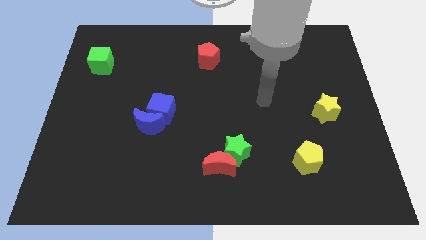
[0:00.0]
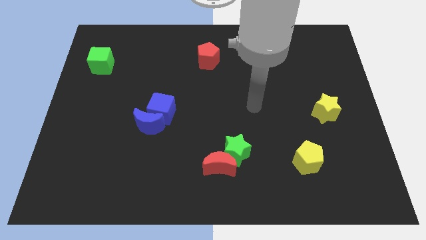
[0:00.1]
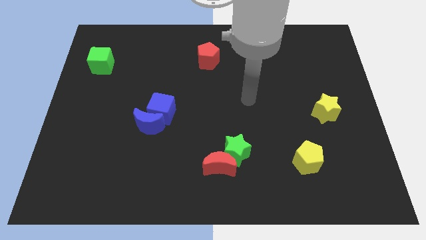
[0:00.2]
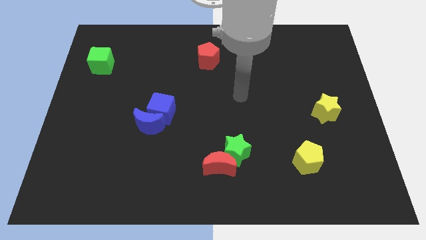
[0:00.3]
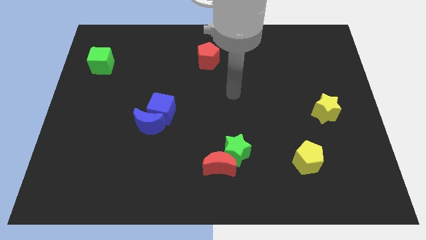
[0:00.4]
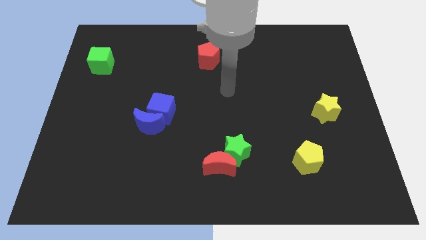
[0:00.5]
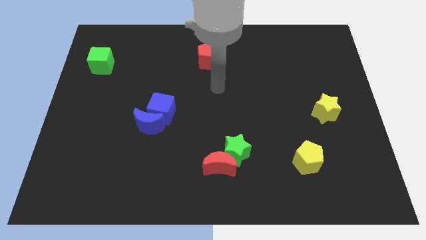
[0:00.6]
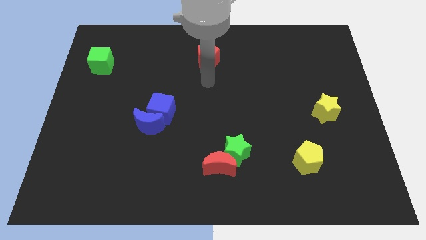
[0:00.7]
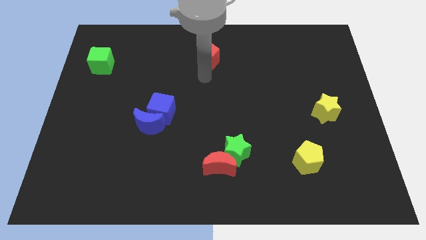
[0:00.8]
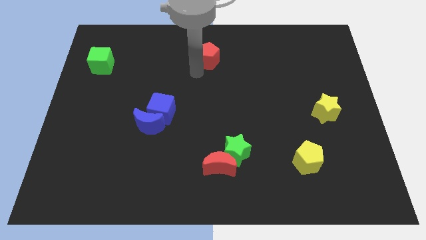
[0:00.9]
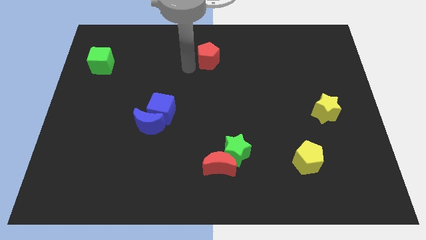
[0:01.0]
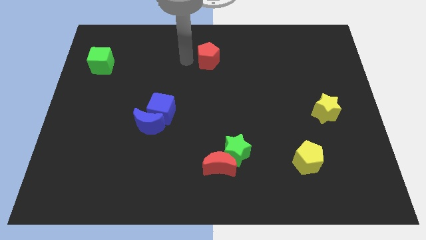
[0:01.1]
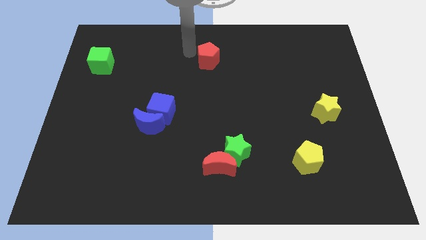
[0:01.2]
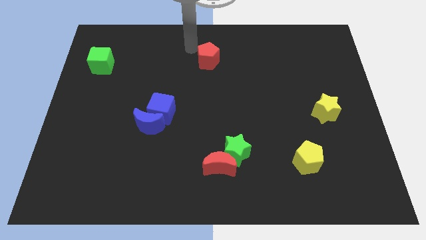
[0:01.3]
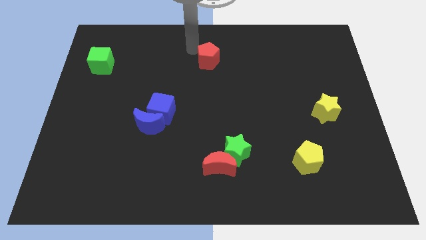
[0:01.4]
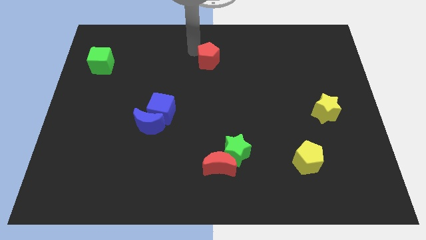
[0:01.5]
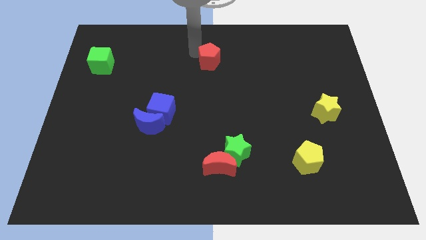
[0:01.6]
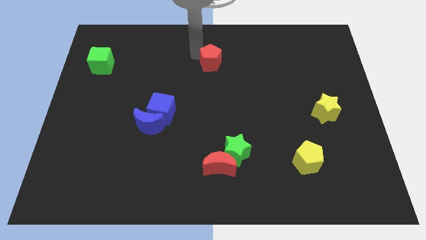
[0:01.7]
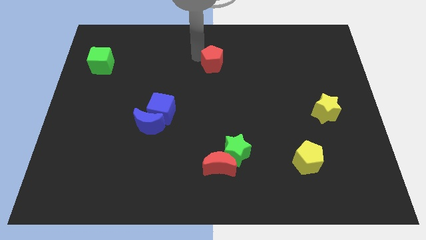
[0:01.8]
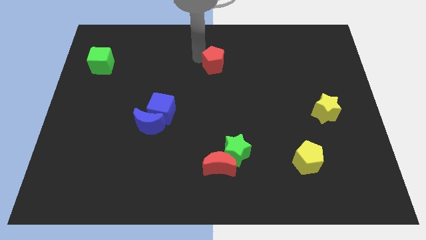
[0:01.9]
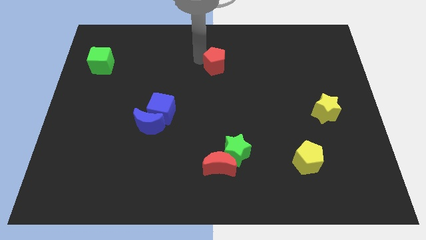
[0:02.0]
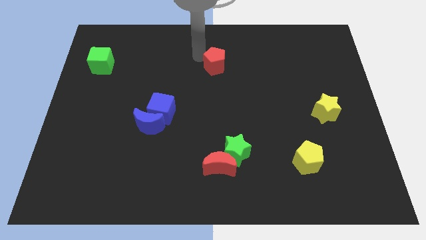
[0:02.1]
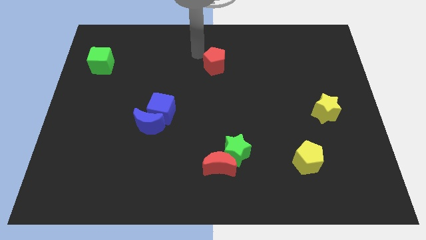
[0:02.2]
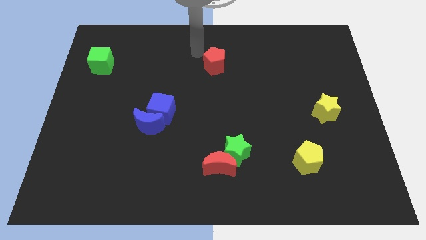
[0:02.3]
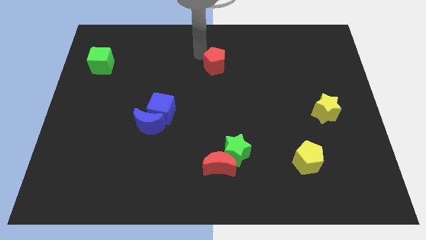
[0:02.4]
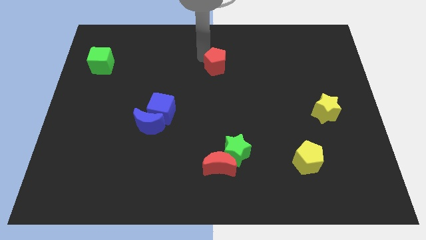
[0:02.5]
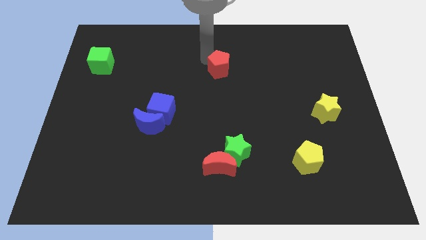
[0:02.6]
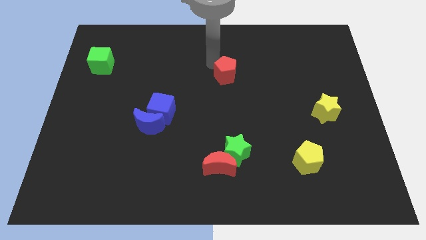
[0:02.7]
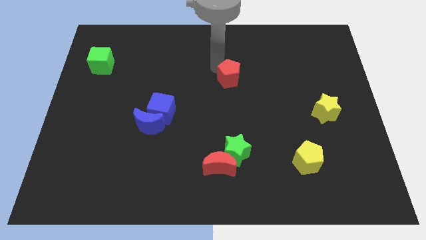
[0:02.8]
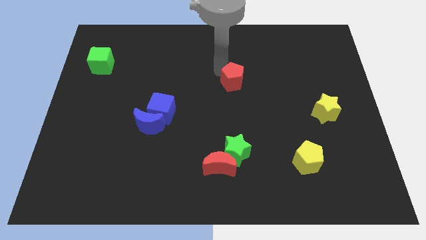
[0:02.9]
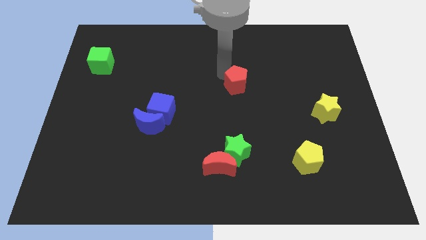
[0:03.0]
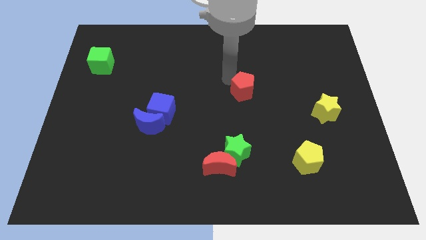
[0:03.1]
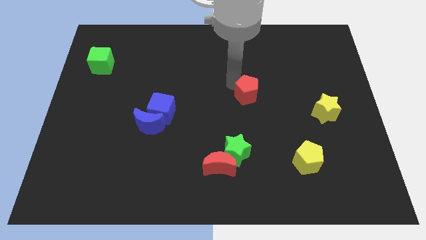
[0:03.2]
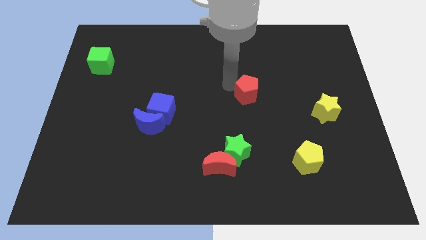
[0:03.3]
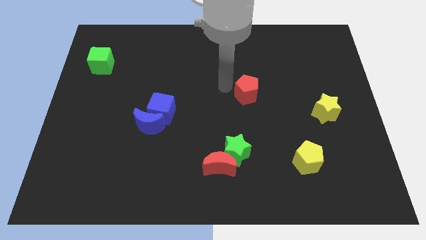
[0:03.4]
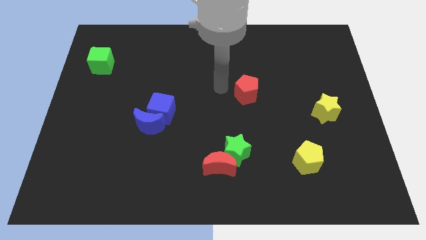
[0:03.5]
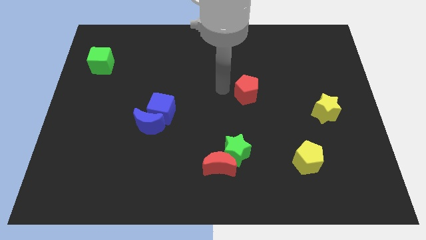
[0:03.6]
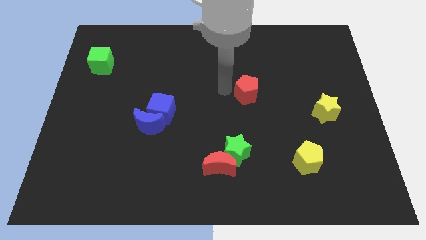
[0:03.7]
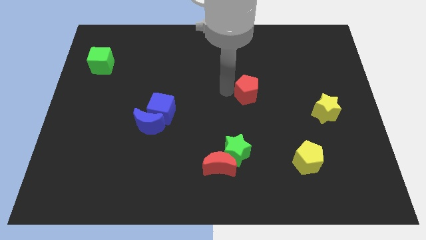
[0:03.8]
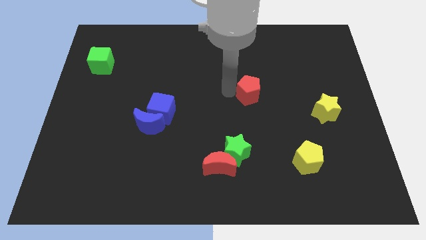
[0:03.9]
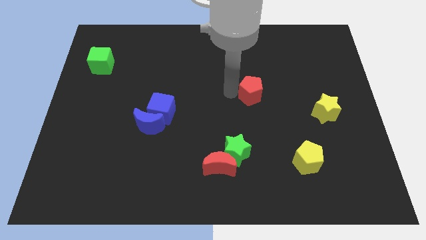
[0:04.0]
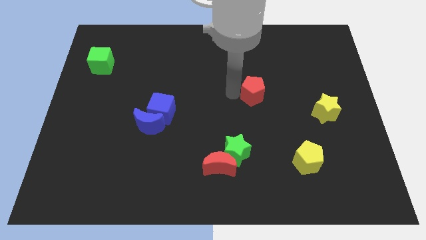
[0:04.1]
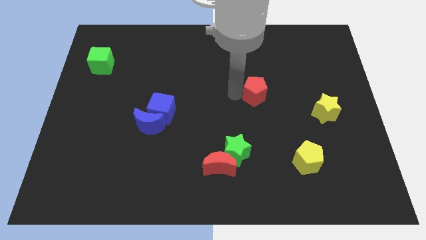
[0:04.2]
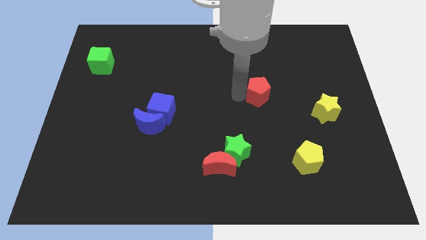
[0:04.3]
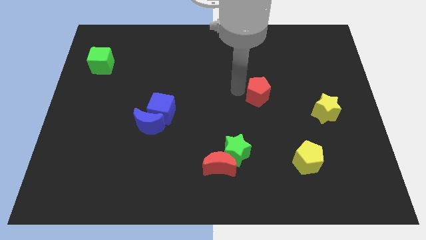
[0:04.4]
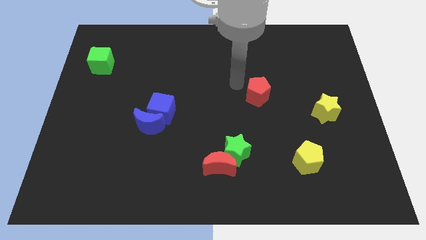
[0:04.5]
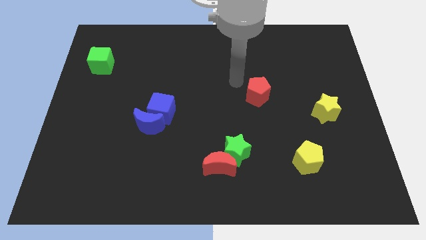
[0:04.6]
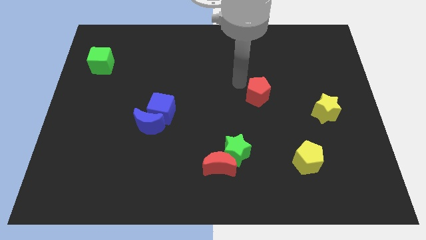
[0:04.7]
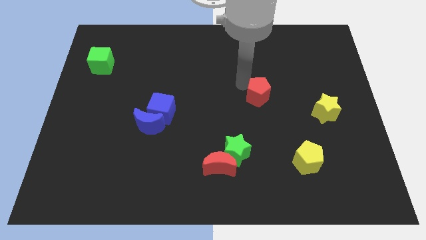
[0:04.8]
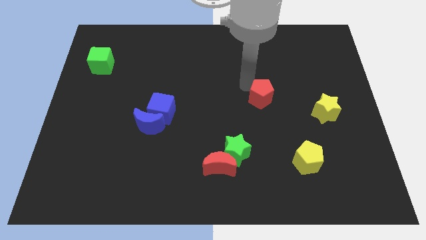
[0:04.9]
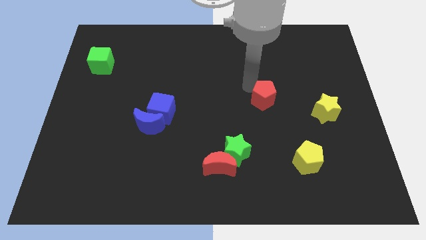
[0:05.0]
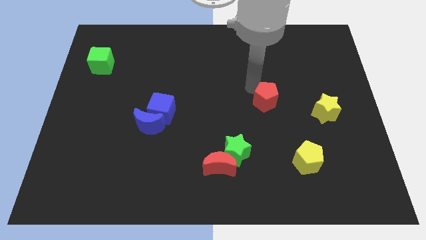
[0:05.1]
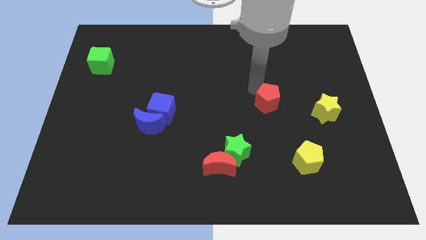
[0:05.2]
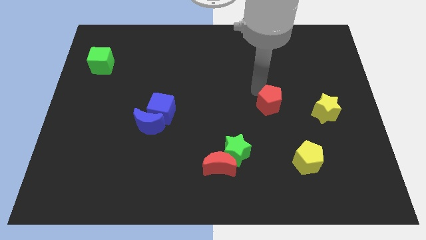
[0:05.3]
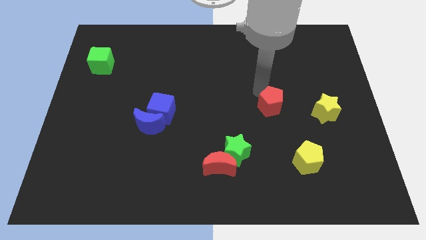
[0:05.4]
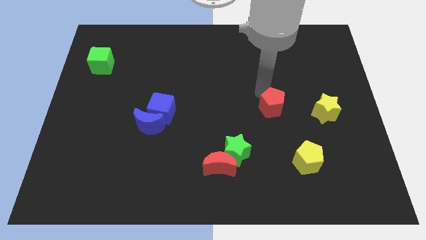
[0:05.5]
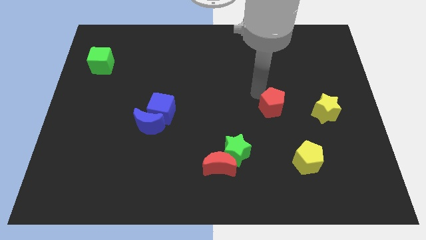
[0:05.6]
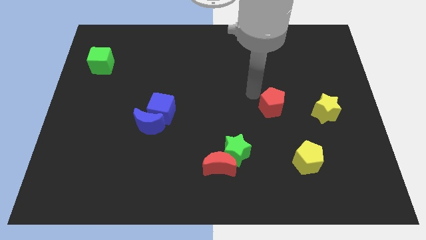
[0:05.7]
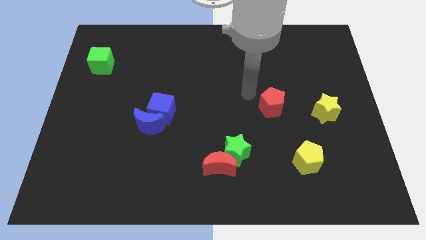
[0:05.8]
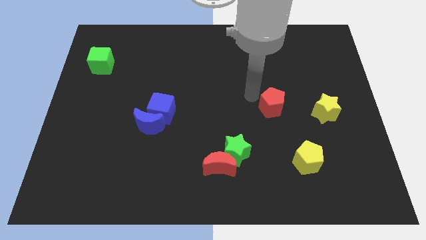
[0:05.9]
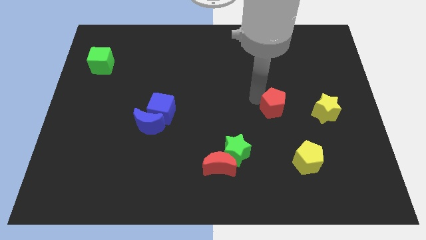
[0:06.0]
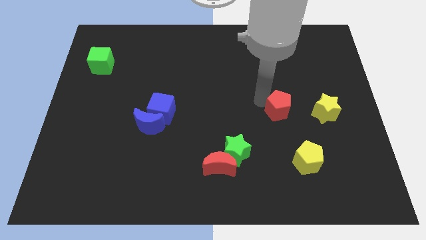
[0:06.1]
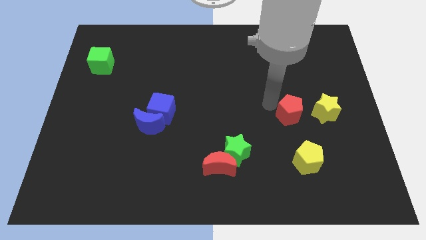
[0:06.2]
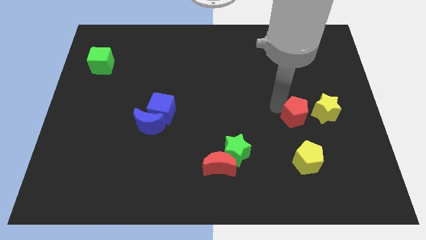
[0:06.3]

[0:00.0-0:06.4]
push the red pentagon diagonally down and to the left of the yellow star

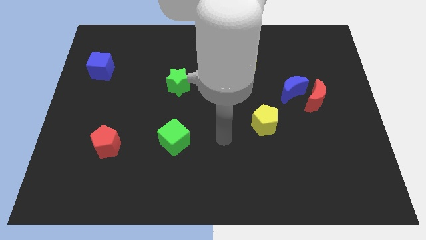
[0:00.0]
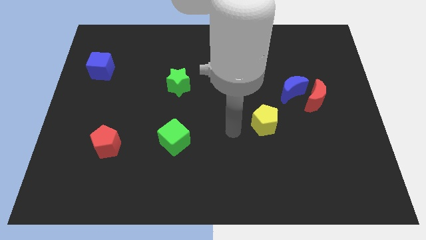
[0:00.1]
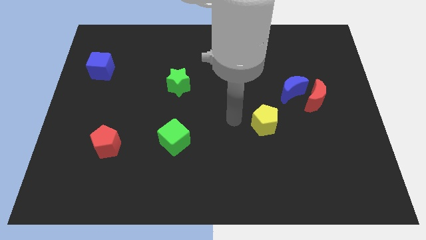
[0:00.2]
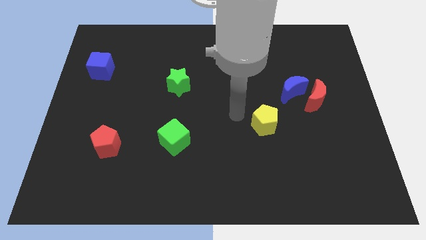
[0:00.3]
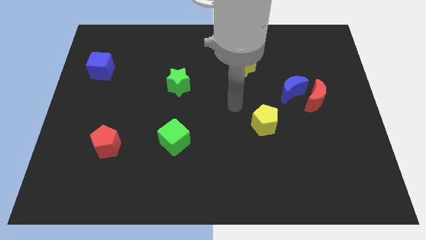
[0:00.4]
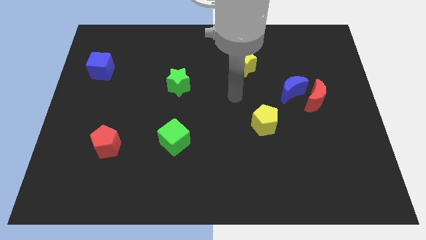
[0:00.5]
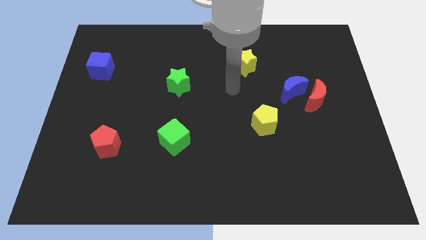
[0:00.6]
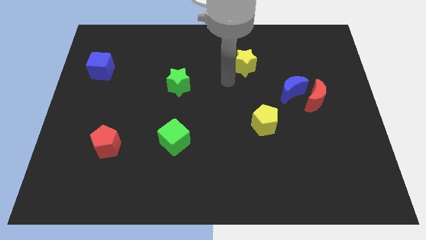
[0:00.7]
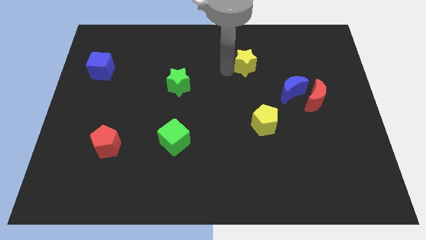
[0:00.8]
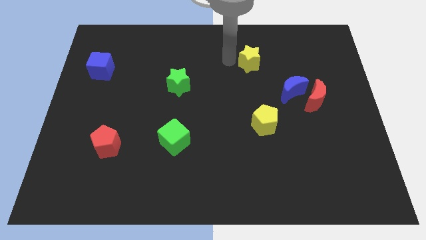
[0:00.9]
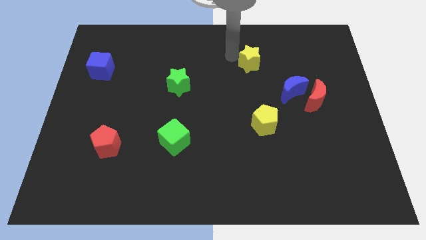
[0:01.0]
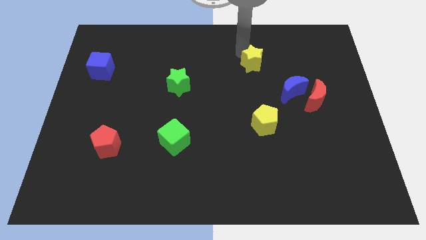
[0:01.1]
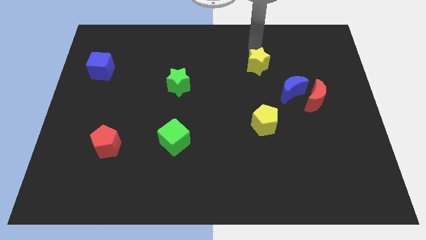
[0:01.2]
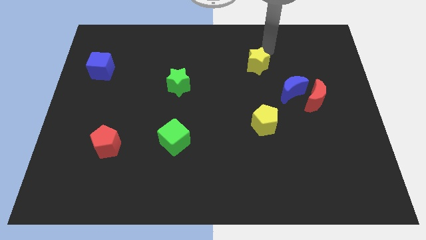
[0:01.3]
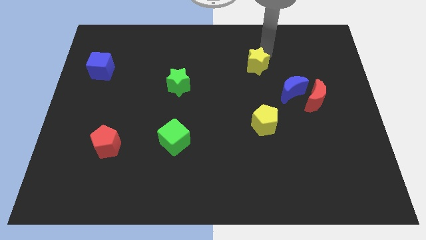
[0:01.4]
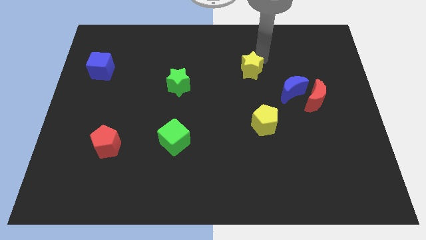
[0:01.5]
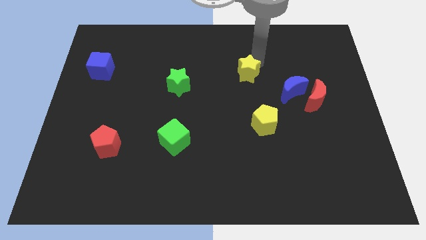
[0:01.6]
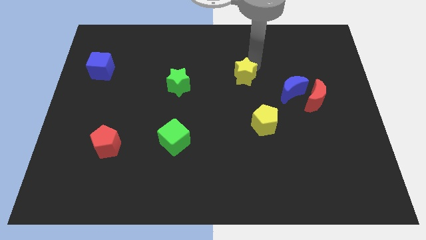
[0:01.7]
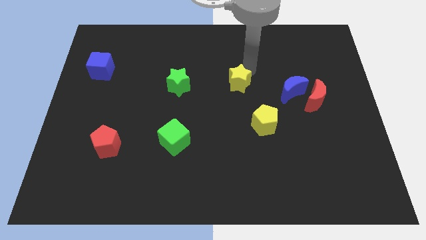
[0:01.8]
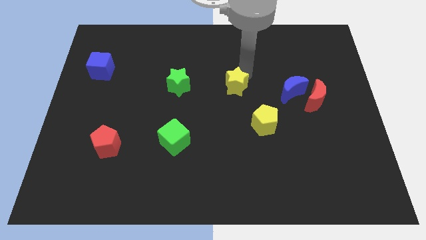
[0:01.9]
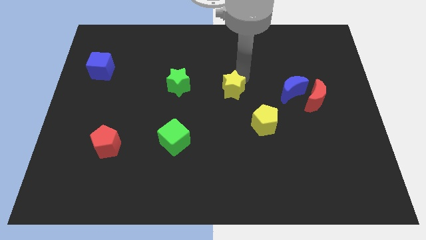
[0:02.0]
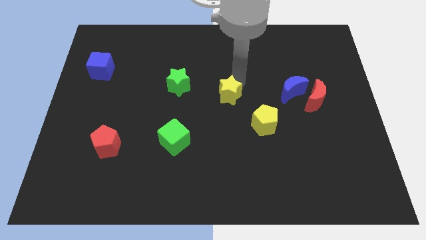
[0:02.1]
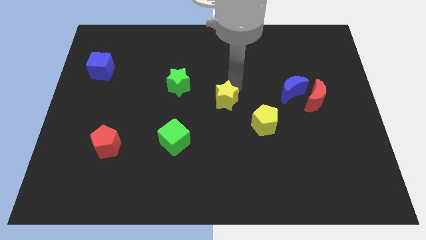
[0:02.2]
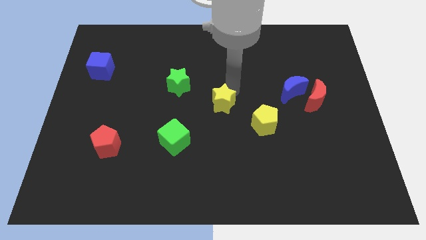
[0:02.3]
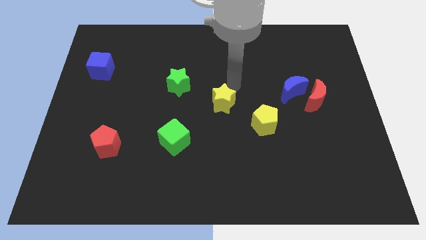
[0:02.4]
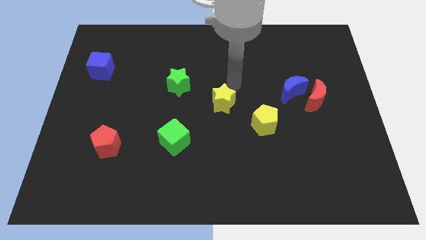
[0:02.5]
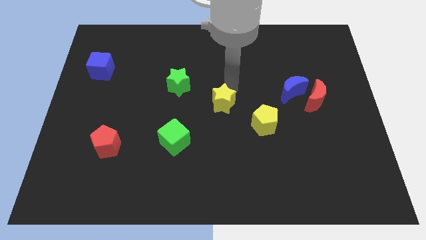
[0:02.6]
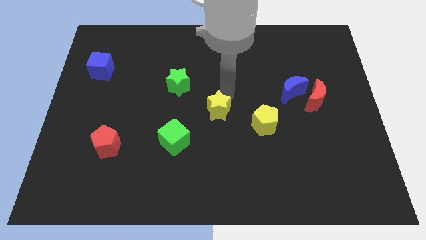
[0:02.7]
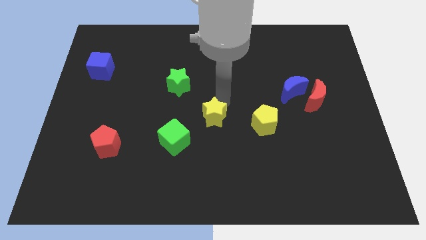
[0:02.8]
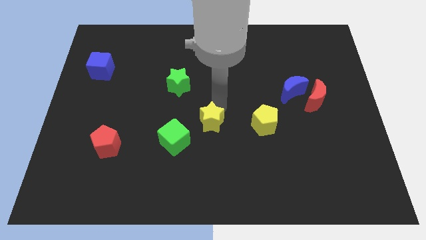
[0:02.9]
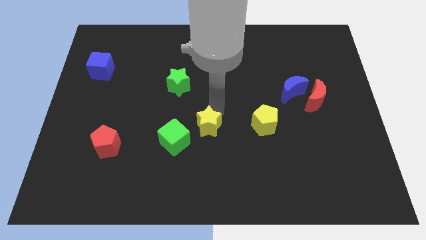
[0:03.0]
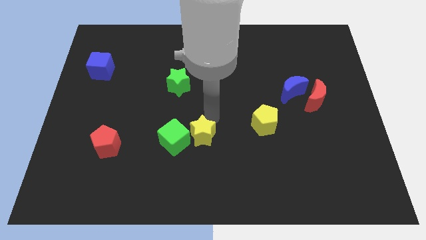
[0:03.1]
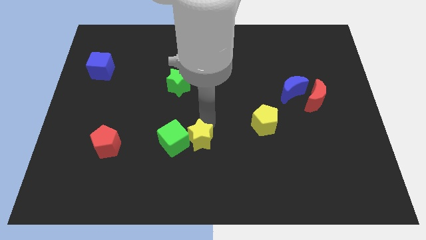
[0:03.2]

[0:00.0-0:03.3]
push the yellow star to the bottom right side of the green cube
